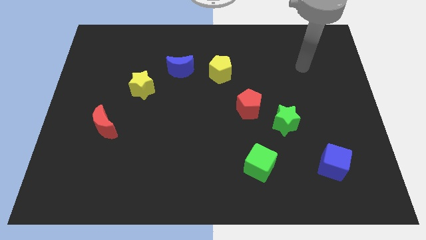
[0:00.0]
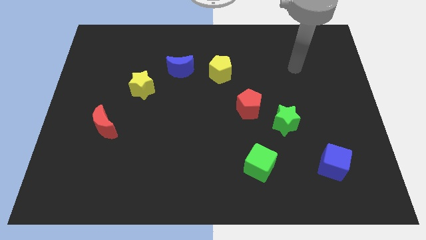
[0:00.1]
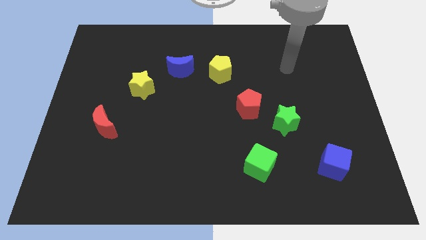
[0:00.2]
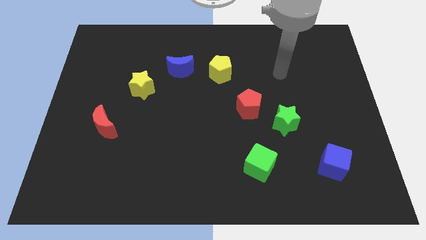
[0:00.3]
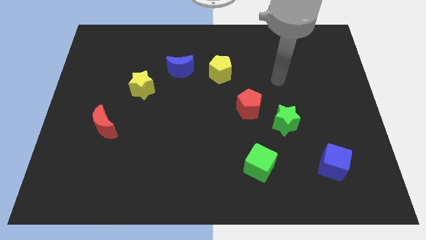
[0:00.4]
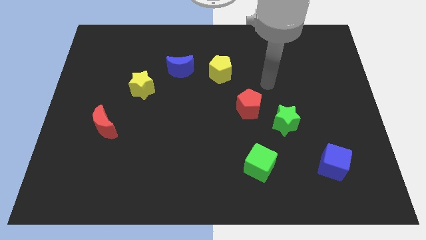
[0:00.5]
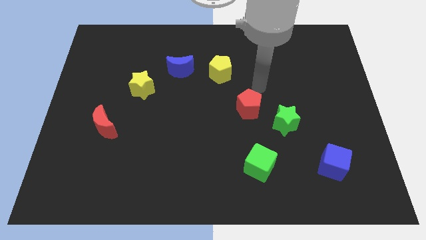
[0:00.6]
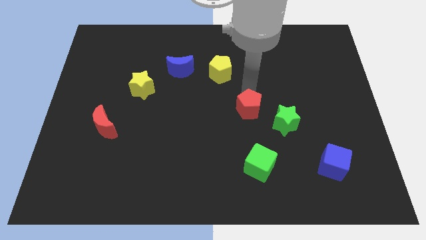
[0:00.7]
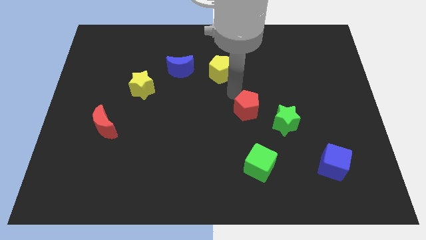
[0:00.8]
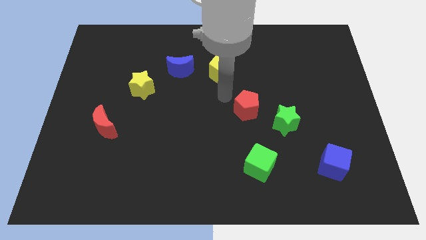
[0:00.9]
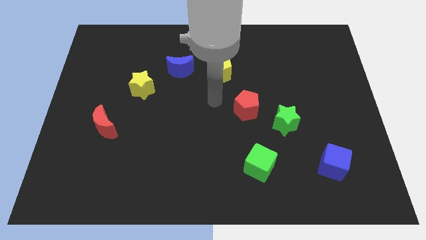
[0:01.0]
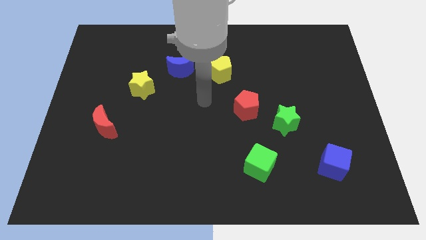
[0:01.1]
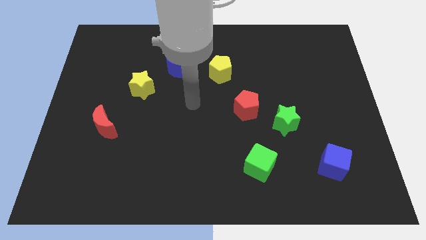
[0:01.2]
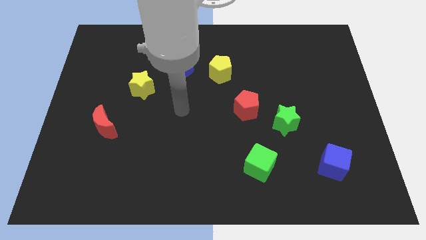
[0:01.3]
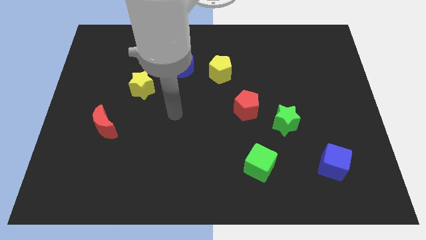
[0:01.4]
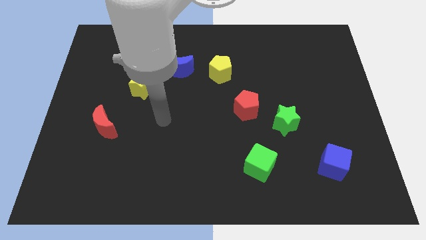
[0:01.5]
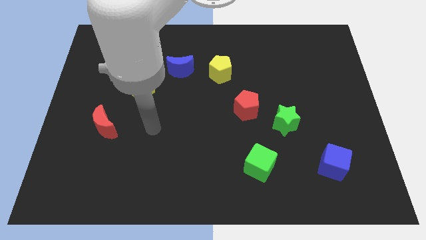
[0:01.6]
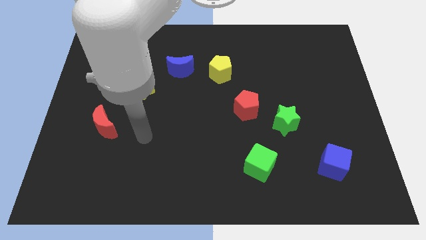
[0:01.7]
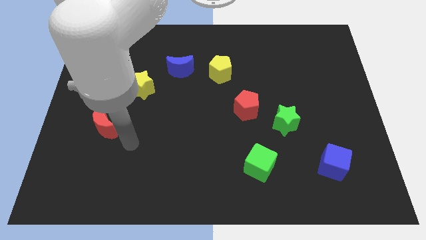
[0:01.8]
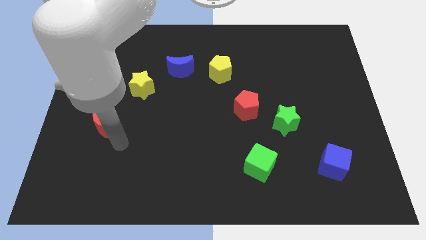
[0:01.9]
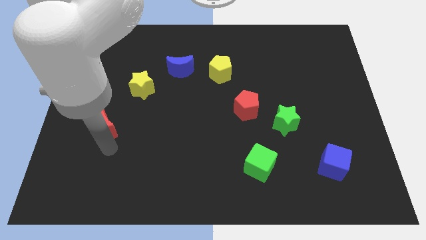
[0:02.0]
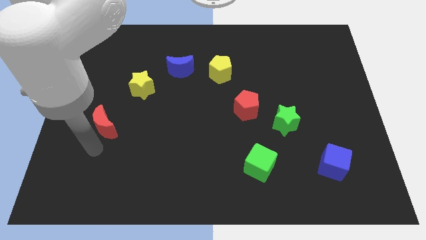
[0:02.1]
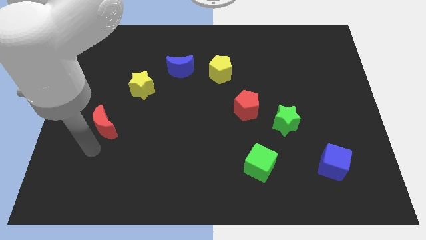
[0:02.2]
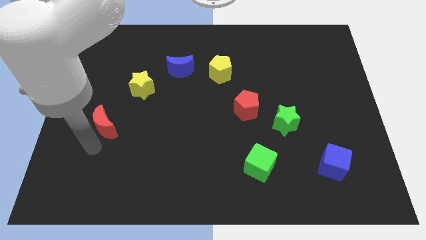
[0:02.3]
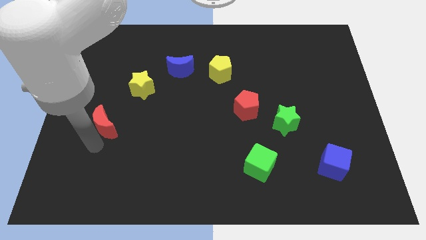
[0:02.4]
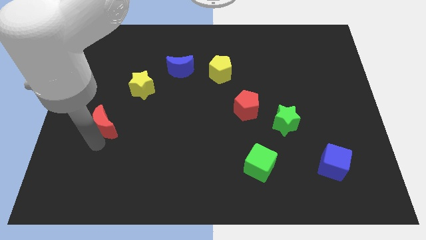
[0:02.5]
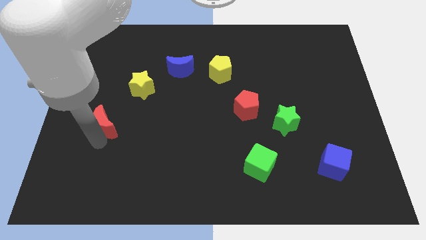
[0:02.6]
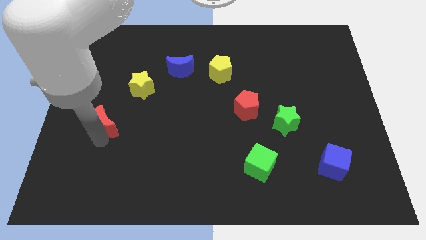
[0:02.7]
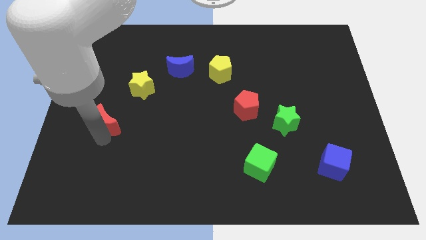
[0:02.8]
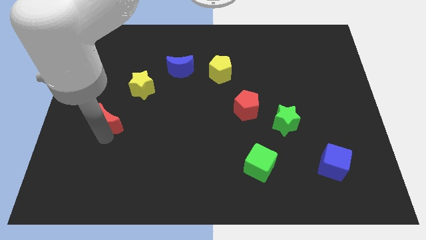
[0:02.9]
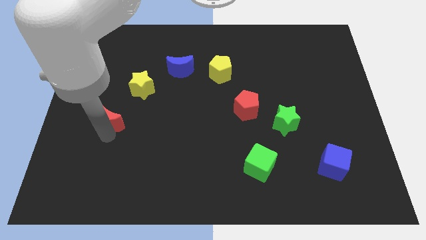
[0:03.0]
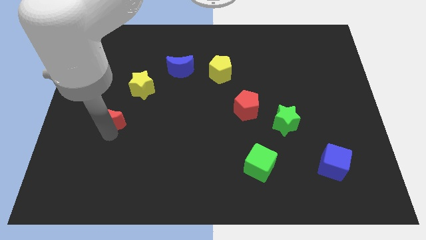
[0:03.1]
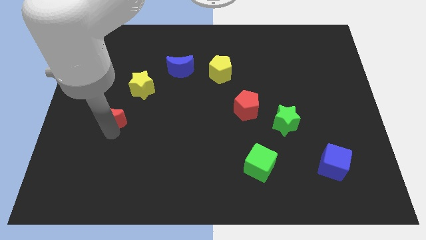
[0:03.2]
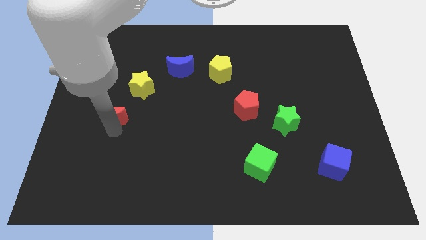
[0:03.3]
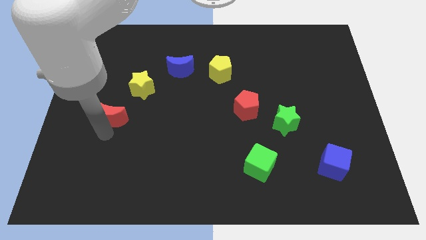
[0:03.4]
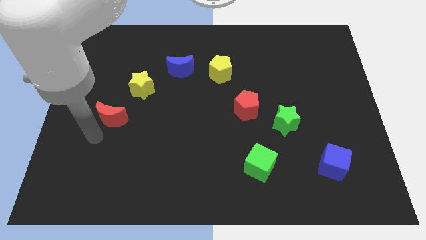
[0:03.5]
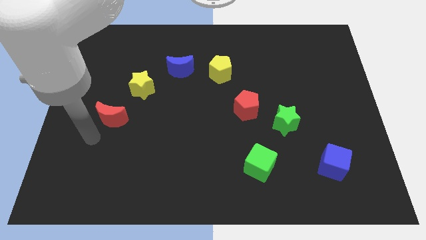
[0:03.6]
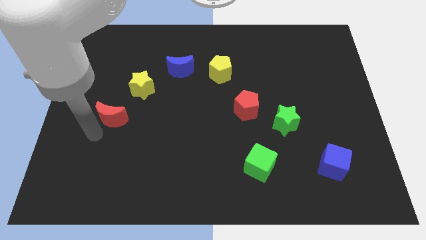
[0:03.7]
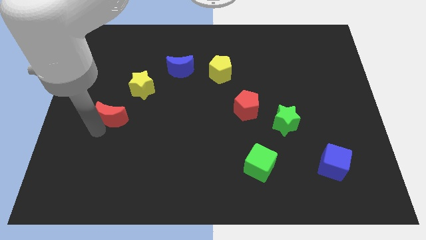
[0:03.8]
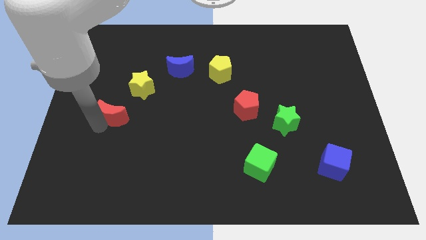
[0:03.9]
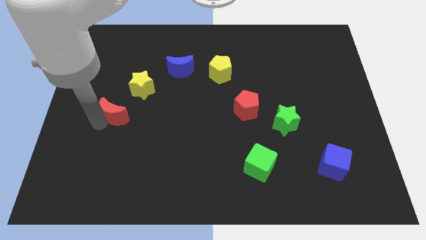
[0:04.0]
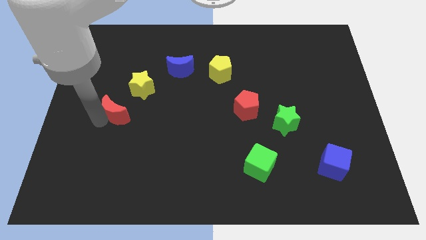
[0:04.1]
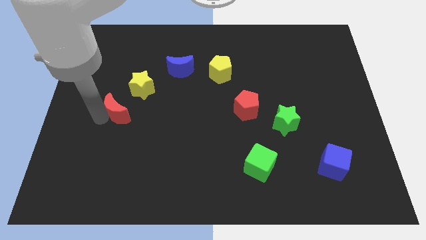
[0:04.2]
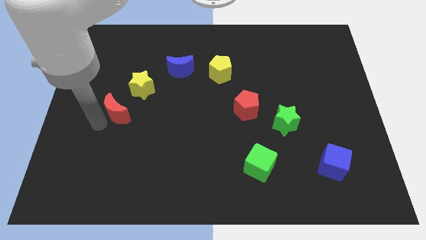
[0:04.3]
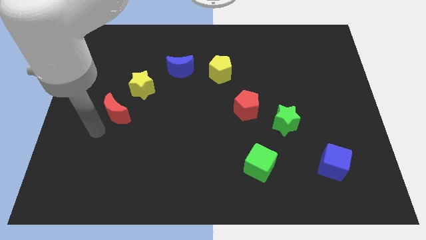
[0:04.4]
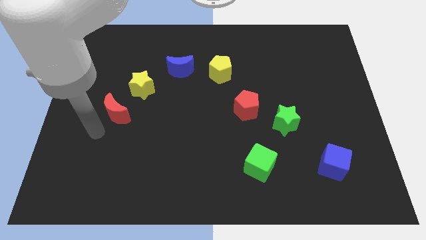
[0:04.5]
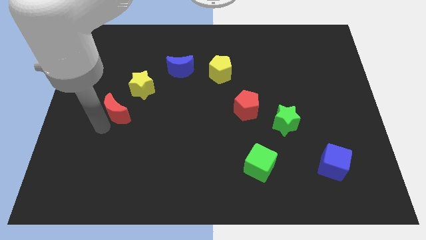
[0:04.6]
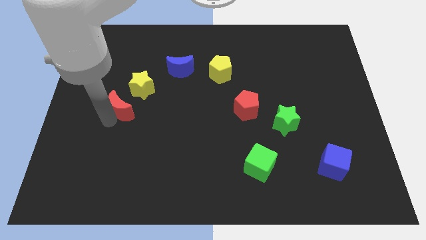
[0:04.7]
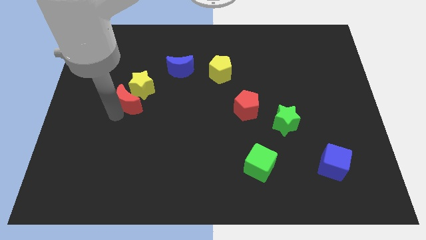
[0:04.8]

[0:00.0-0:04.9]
slide the red moon towards the yellow star
